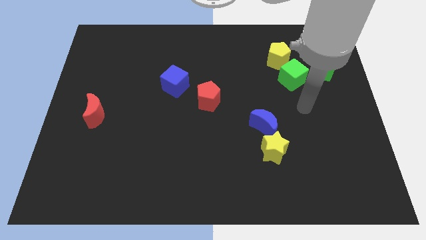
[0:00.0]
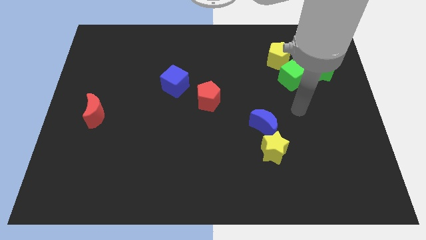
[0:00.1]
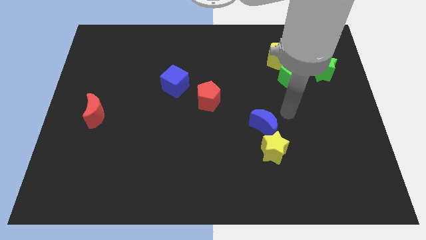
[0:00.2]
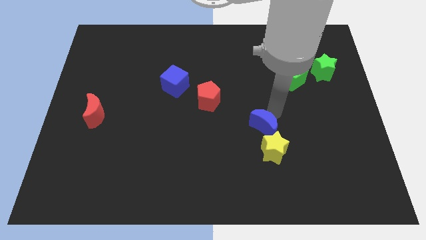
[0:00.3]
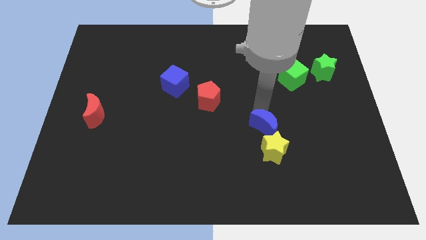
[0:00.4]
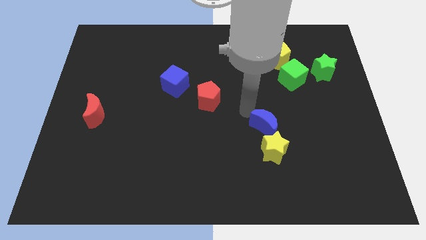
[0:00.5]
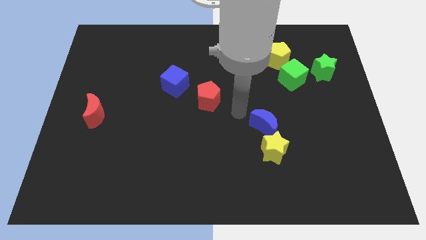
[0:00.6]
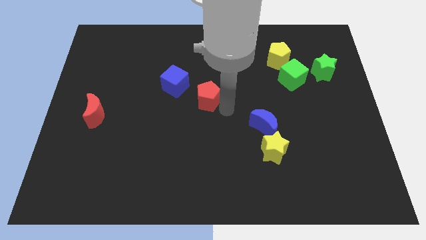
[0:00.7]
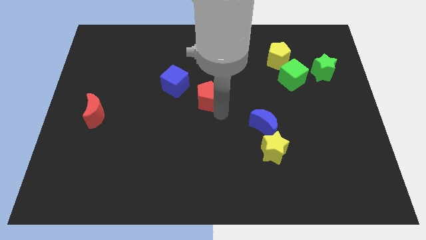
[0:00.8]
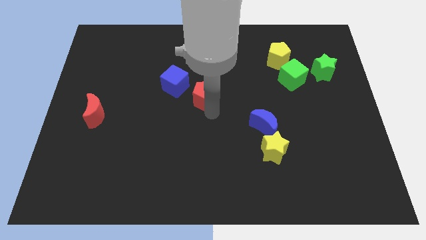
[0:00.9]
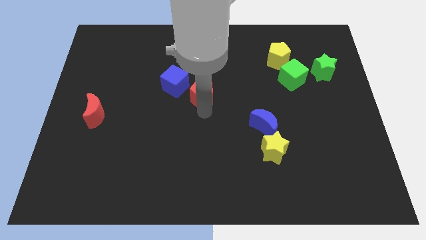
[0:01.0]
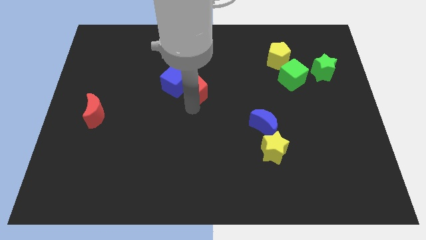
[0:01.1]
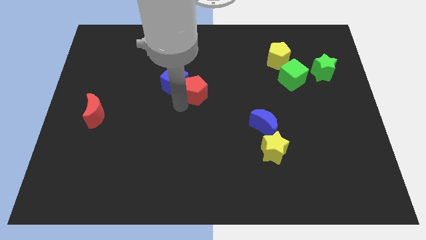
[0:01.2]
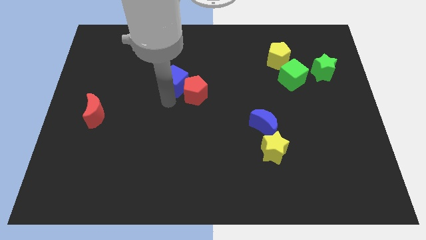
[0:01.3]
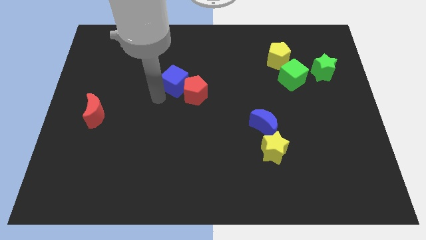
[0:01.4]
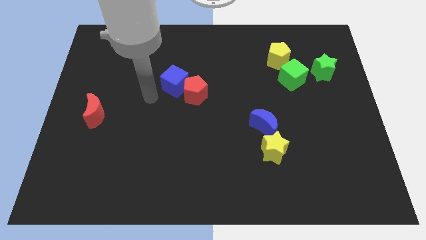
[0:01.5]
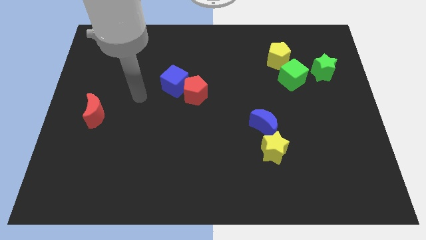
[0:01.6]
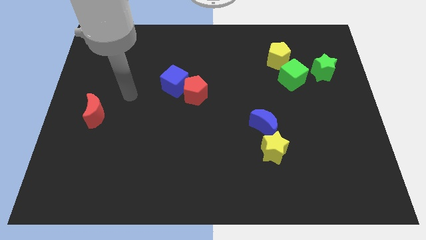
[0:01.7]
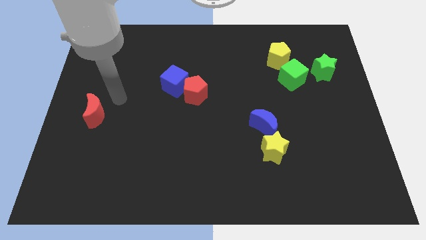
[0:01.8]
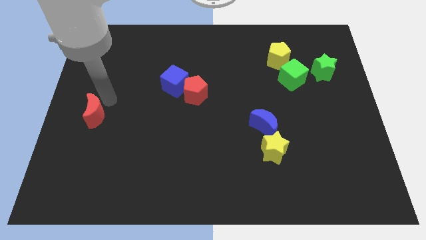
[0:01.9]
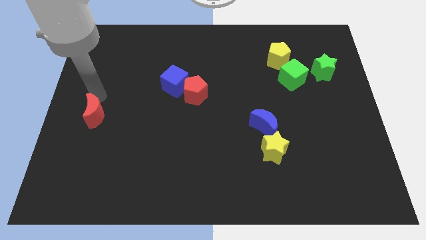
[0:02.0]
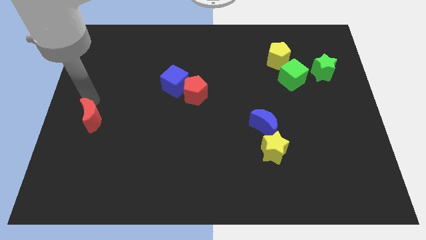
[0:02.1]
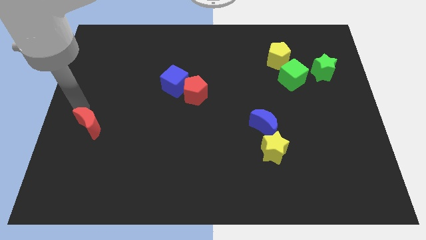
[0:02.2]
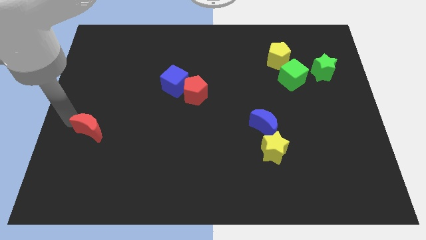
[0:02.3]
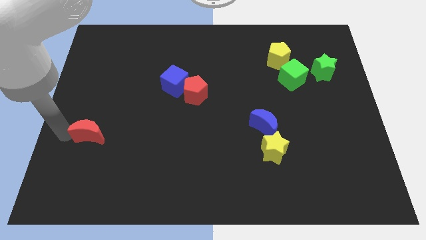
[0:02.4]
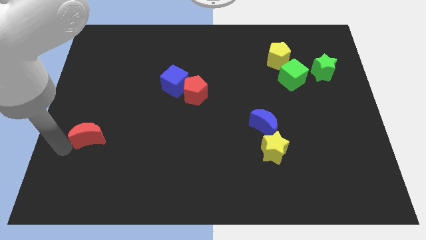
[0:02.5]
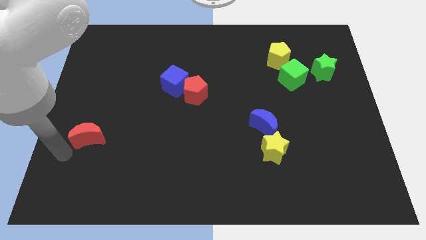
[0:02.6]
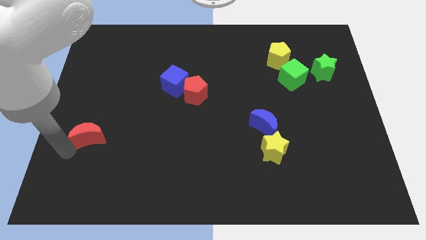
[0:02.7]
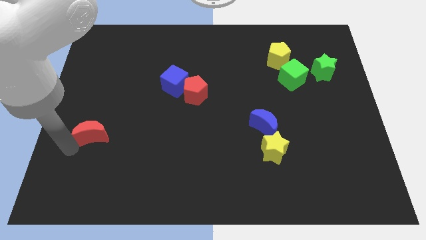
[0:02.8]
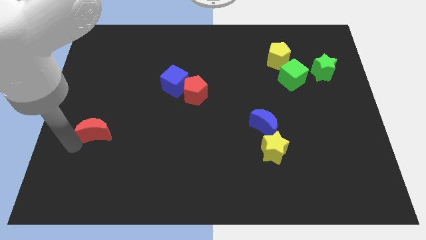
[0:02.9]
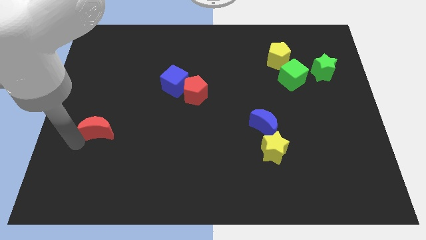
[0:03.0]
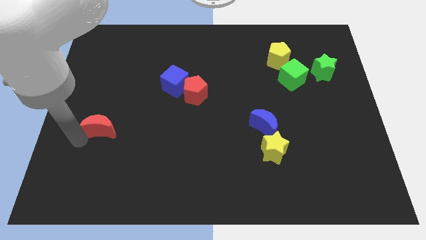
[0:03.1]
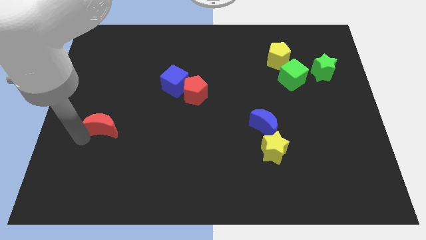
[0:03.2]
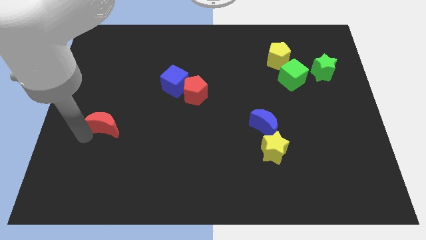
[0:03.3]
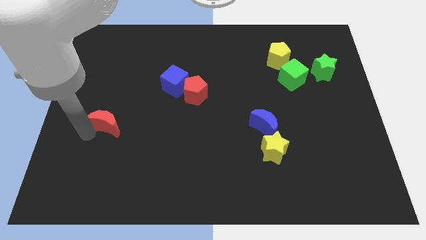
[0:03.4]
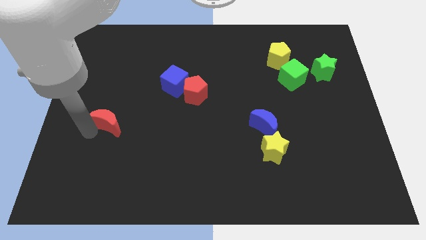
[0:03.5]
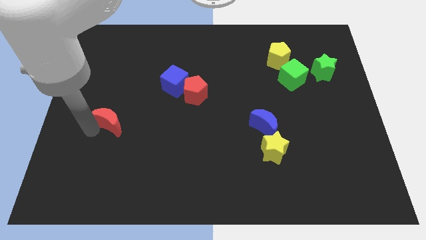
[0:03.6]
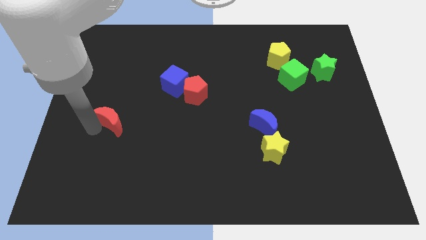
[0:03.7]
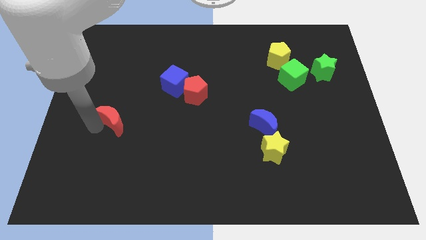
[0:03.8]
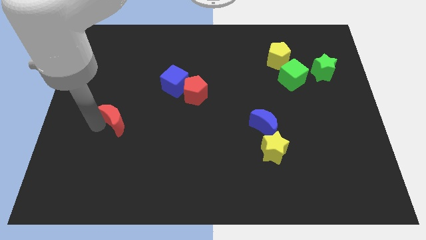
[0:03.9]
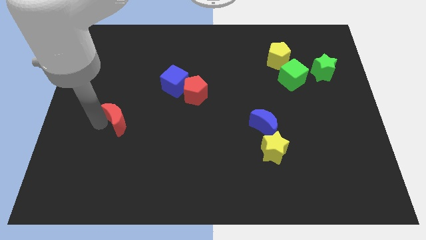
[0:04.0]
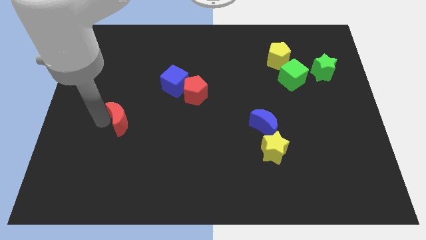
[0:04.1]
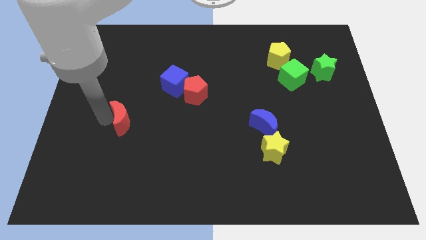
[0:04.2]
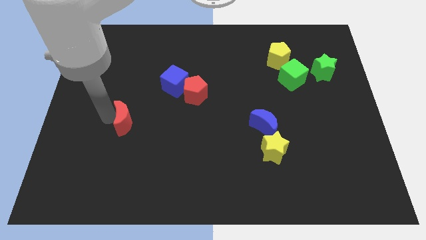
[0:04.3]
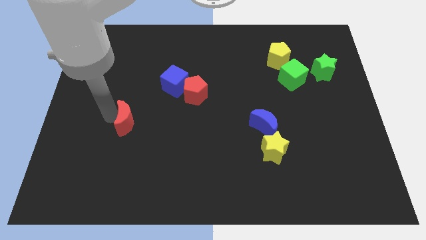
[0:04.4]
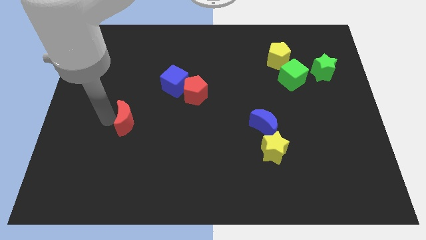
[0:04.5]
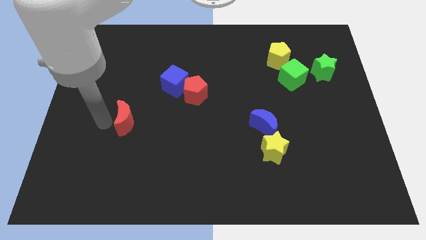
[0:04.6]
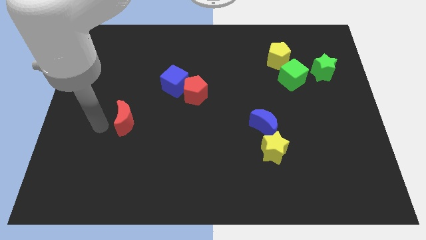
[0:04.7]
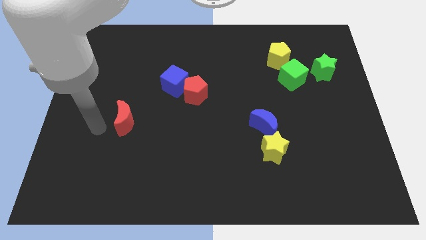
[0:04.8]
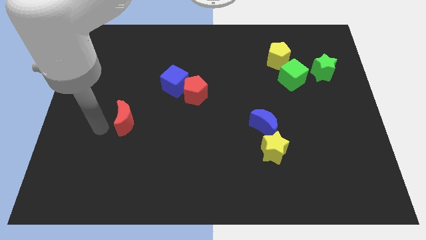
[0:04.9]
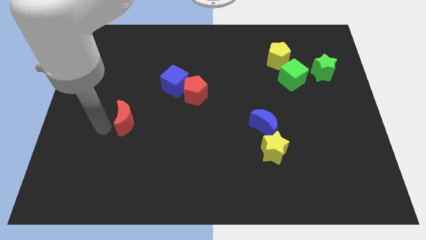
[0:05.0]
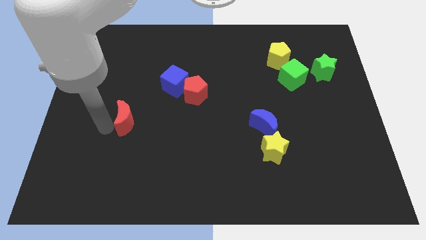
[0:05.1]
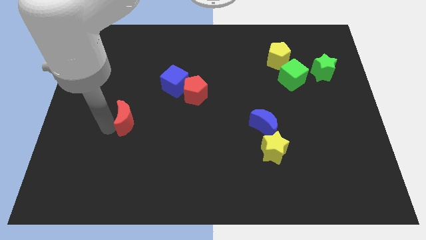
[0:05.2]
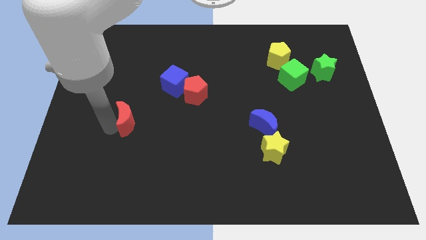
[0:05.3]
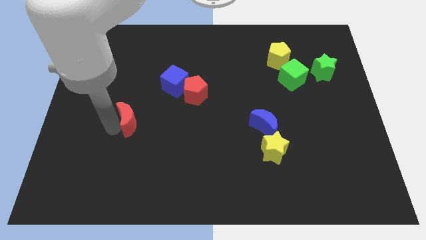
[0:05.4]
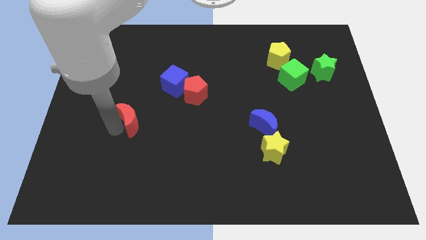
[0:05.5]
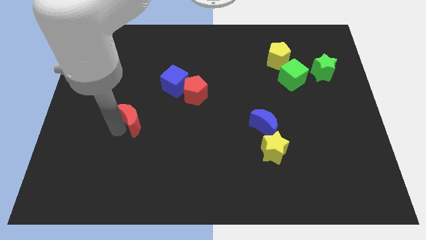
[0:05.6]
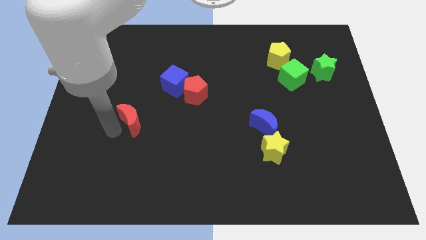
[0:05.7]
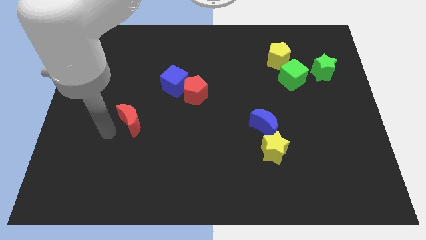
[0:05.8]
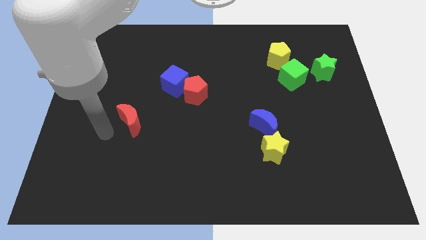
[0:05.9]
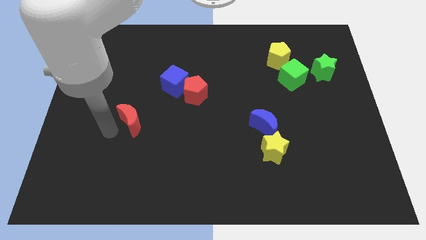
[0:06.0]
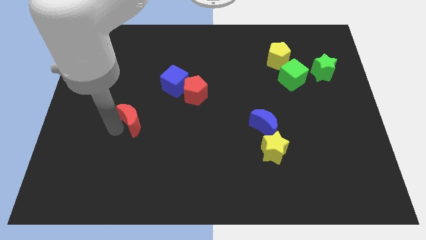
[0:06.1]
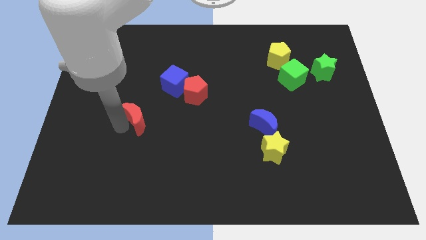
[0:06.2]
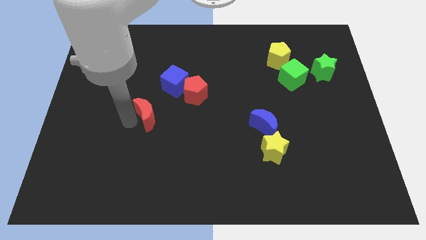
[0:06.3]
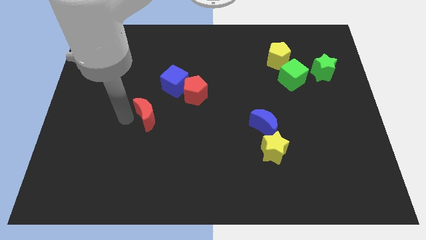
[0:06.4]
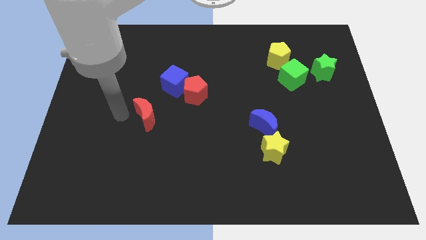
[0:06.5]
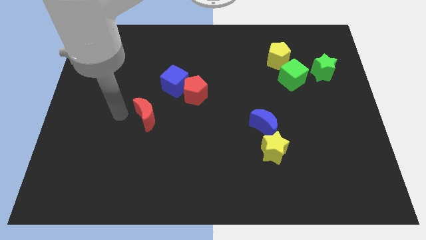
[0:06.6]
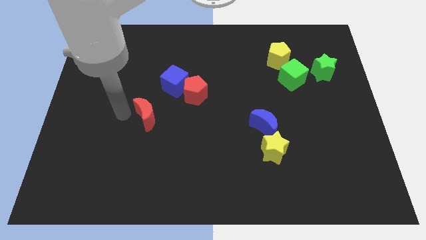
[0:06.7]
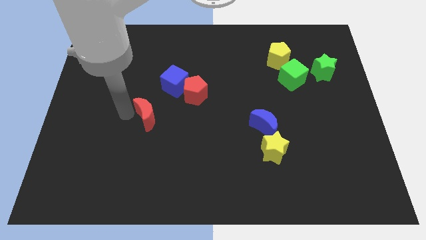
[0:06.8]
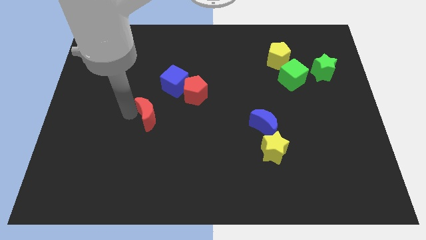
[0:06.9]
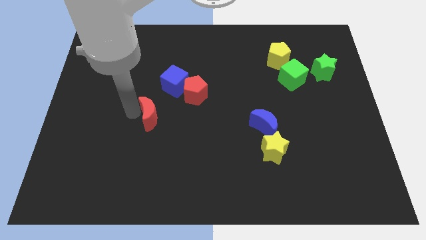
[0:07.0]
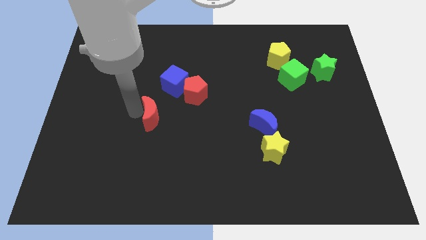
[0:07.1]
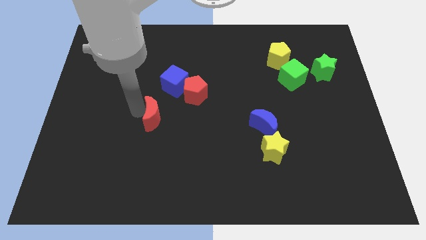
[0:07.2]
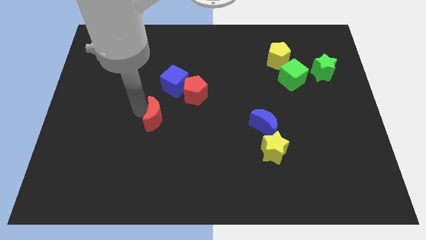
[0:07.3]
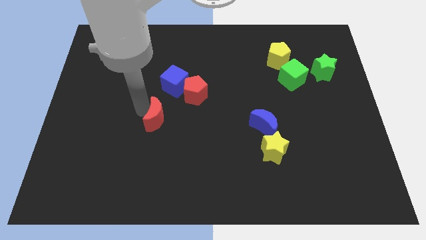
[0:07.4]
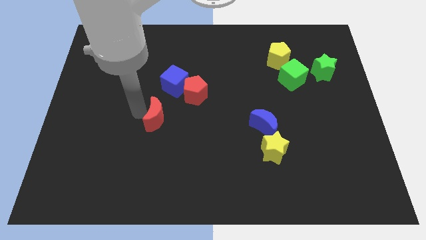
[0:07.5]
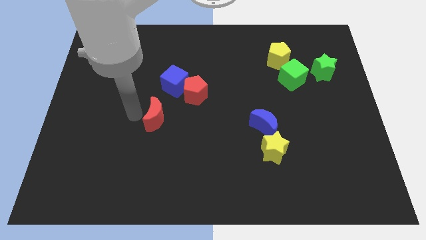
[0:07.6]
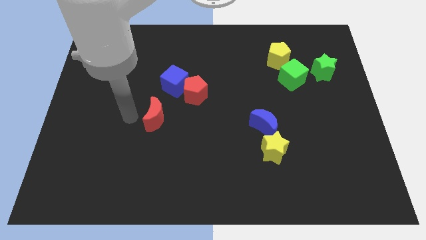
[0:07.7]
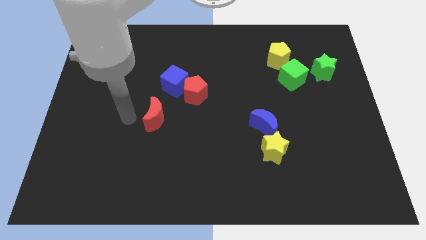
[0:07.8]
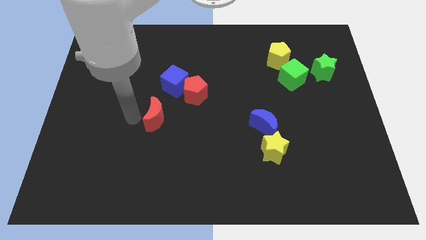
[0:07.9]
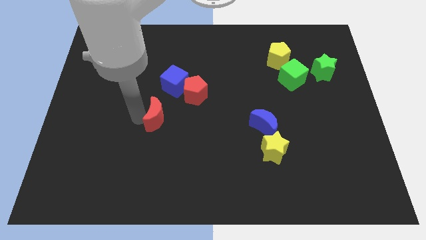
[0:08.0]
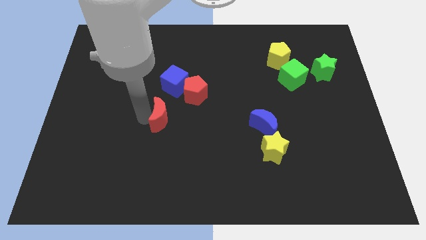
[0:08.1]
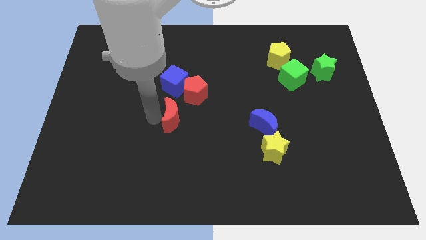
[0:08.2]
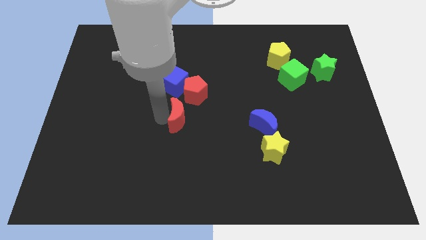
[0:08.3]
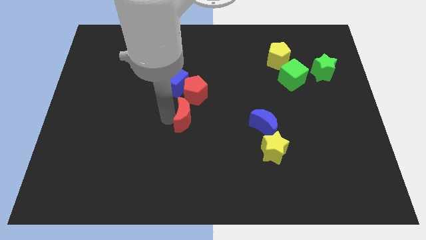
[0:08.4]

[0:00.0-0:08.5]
slide the red moon right
